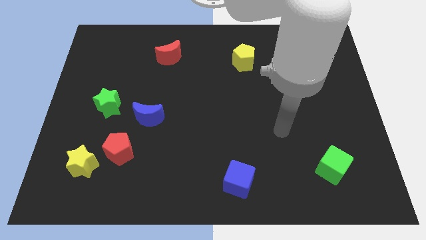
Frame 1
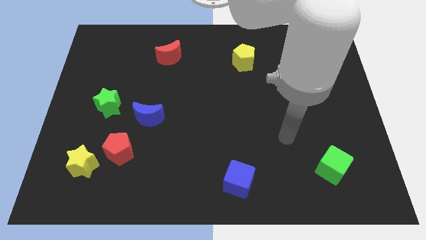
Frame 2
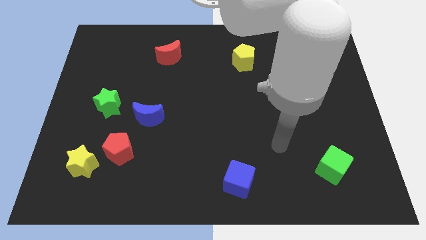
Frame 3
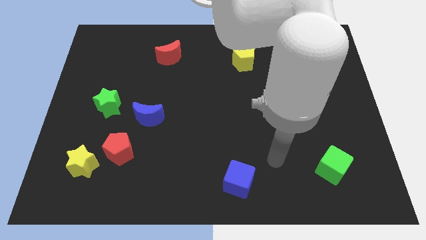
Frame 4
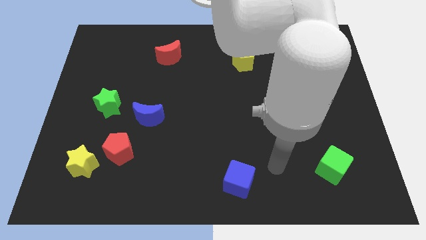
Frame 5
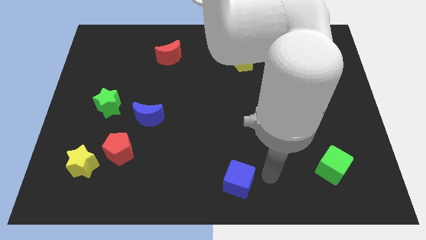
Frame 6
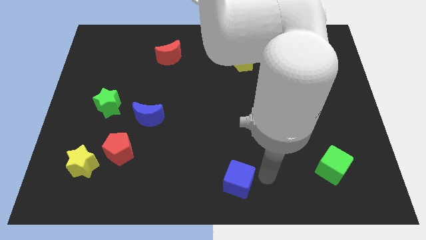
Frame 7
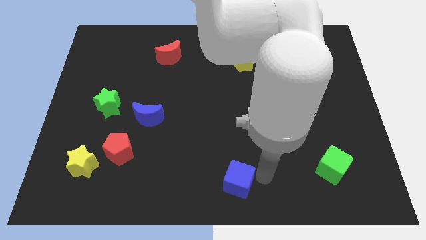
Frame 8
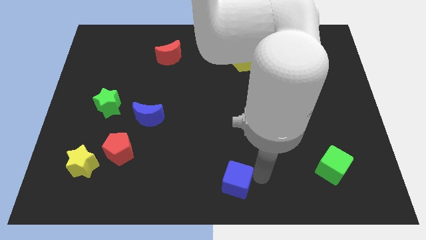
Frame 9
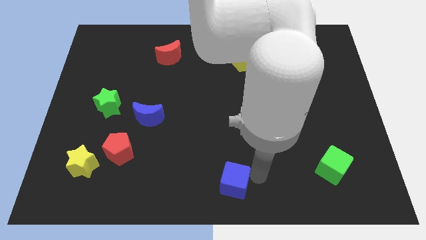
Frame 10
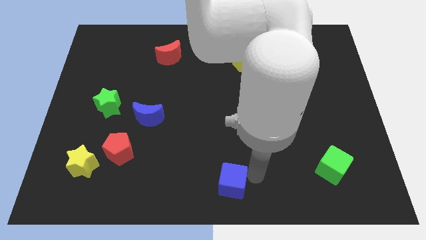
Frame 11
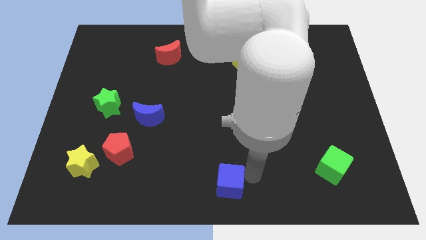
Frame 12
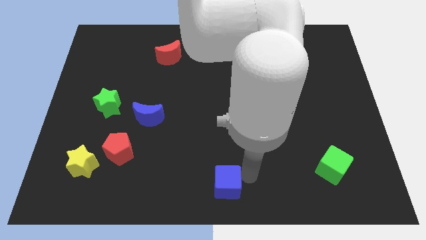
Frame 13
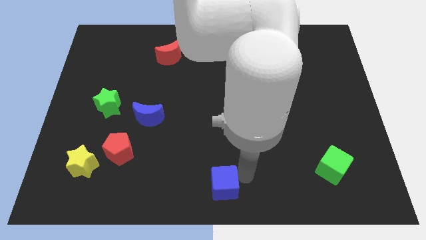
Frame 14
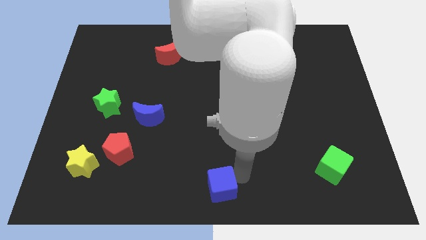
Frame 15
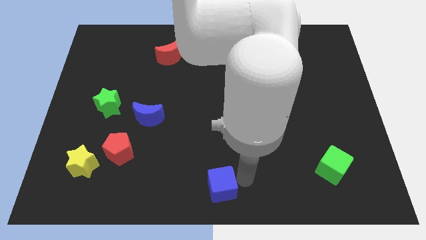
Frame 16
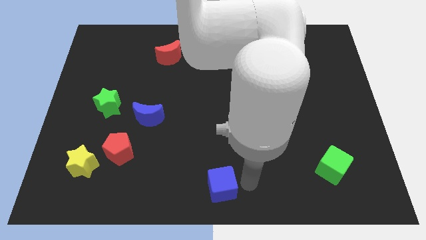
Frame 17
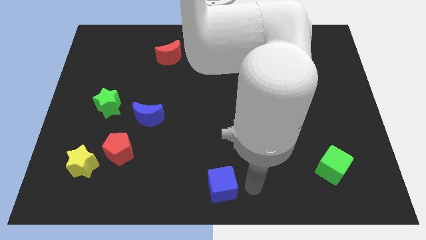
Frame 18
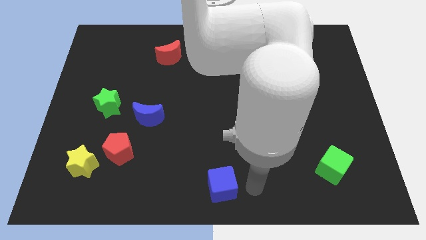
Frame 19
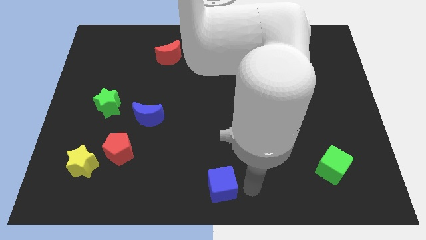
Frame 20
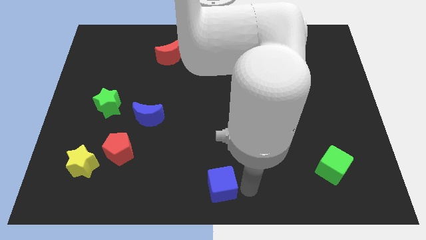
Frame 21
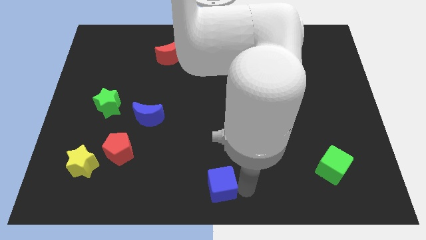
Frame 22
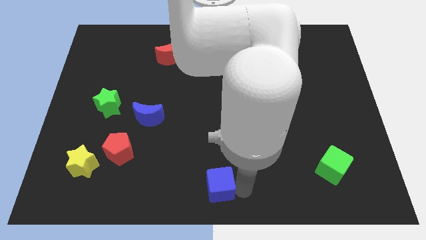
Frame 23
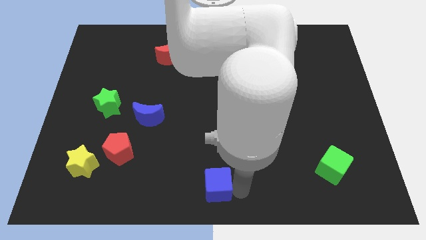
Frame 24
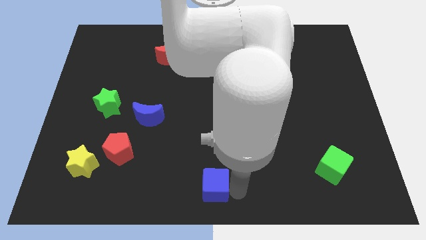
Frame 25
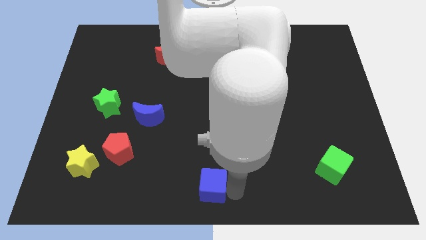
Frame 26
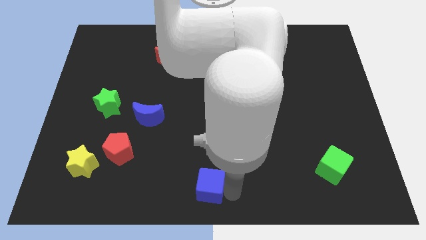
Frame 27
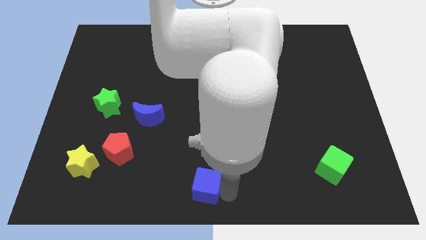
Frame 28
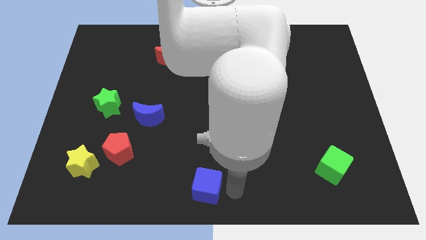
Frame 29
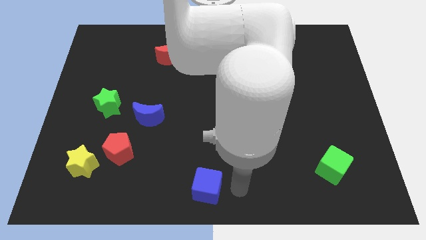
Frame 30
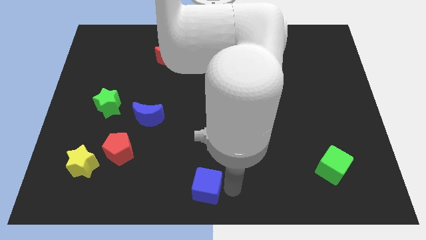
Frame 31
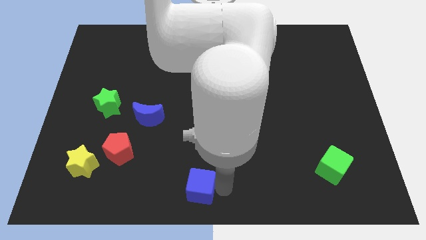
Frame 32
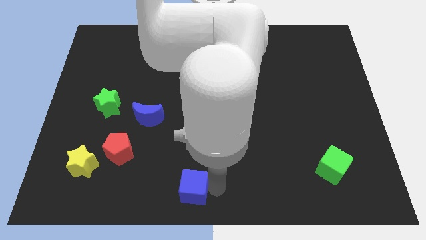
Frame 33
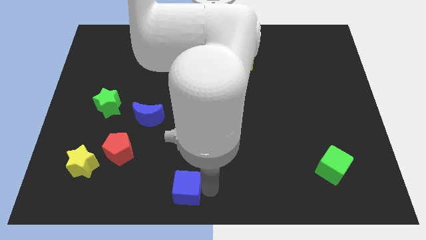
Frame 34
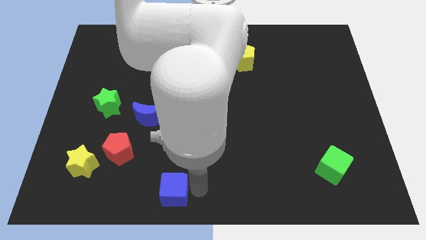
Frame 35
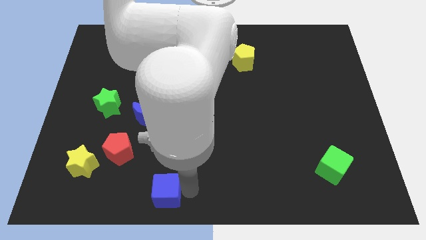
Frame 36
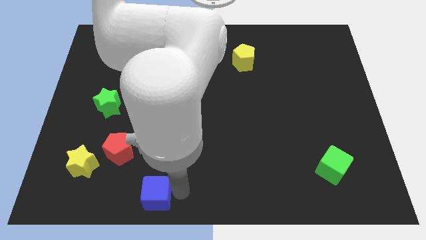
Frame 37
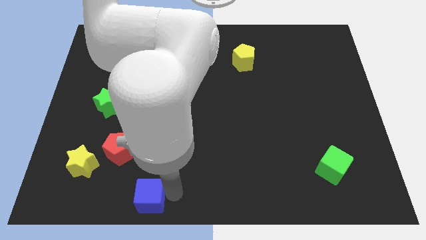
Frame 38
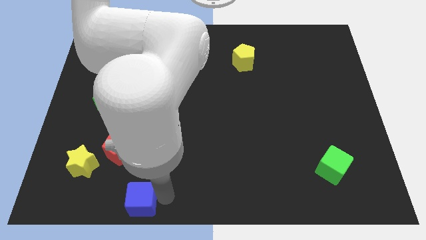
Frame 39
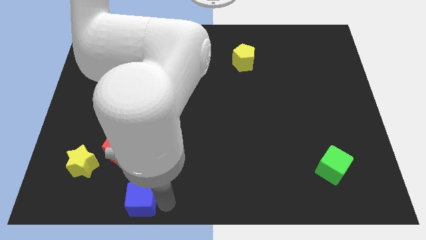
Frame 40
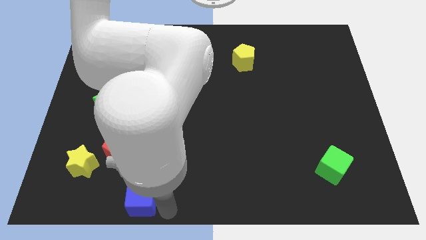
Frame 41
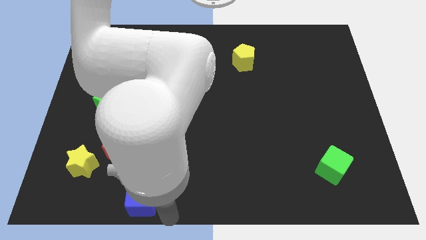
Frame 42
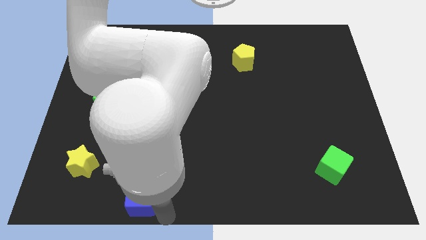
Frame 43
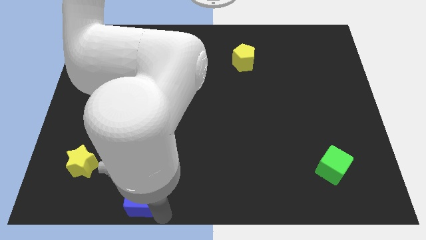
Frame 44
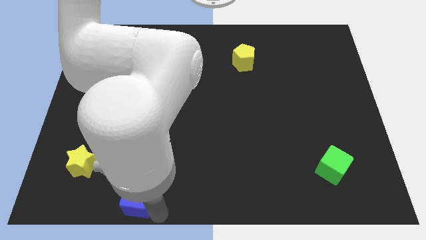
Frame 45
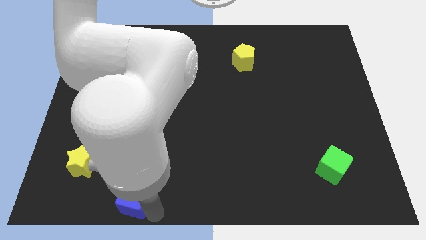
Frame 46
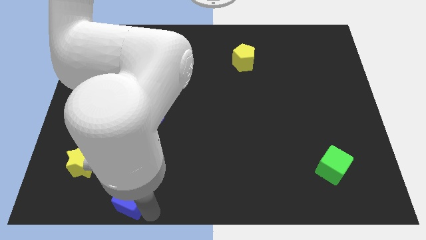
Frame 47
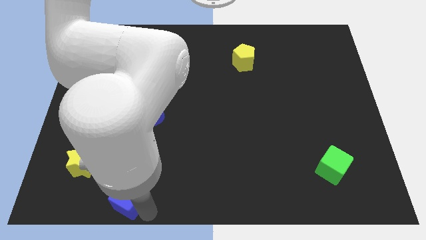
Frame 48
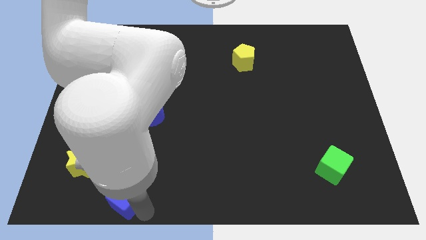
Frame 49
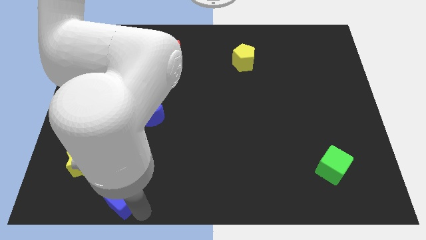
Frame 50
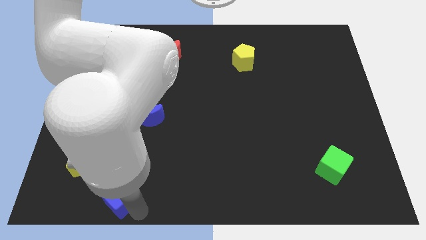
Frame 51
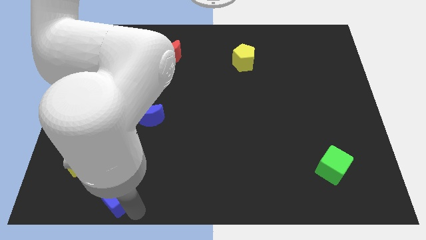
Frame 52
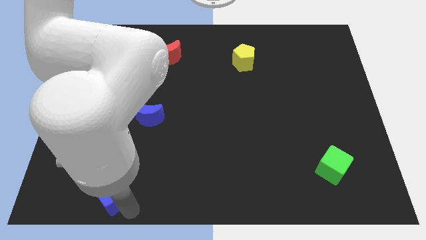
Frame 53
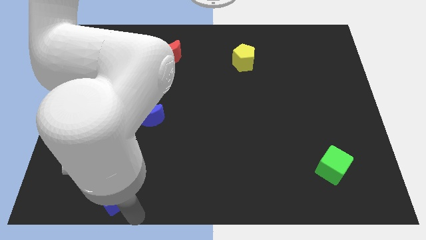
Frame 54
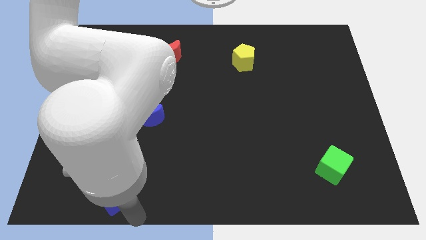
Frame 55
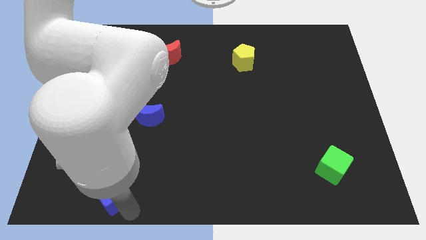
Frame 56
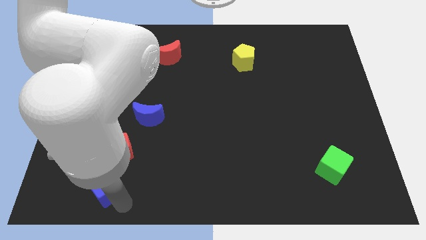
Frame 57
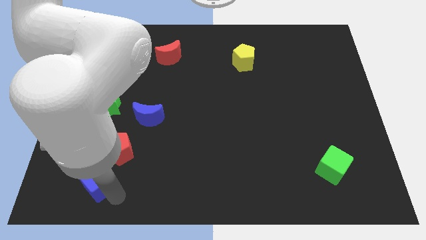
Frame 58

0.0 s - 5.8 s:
slide the blue cube towards the yellow star

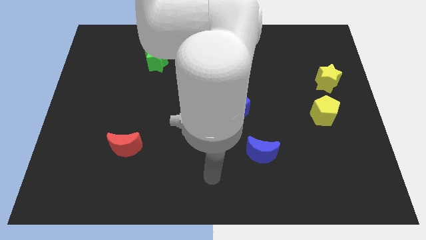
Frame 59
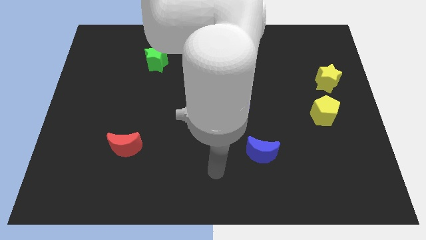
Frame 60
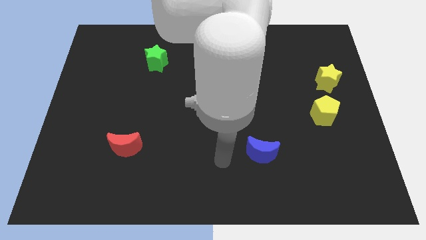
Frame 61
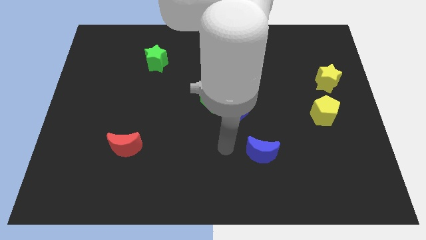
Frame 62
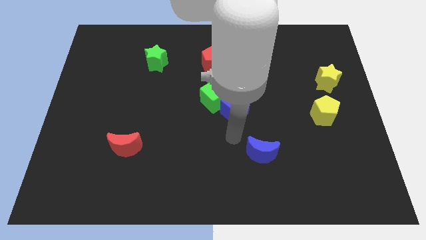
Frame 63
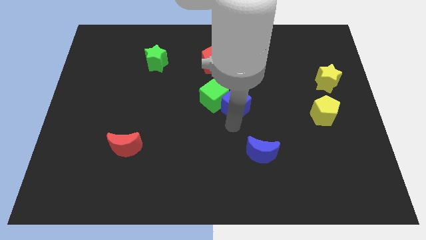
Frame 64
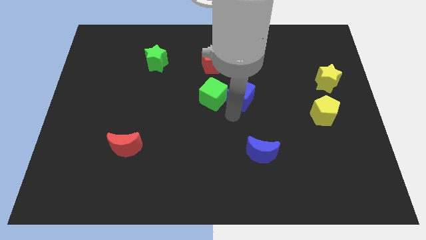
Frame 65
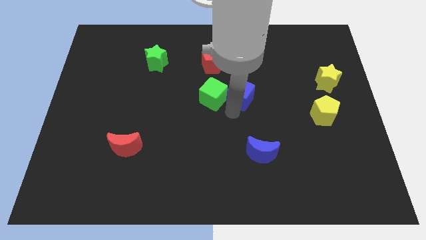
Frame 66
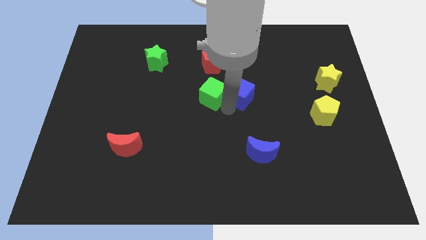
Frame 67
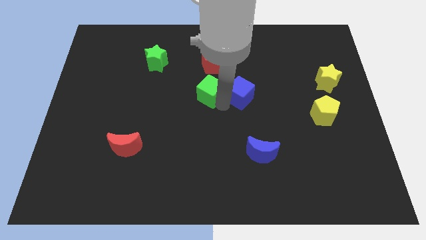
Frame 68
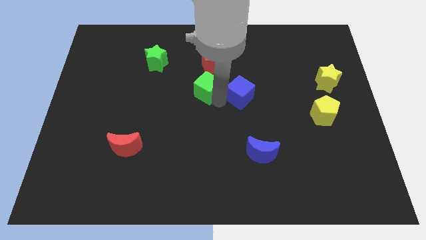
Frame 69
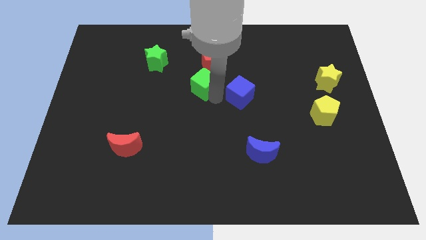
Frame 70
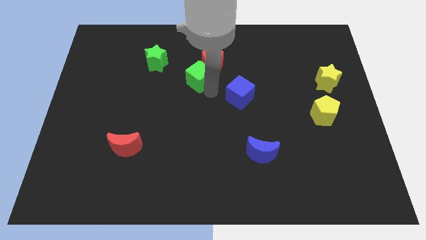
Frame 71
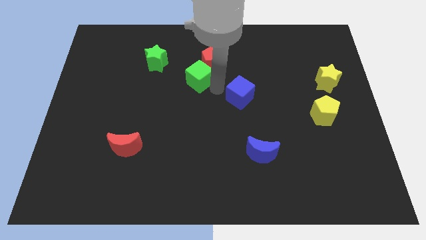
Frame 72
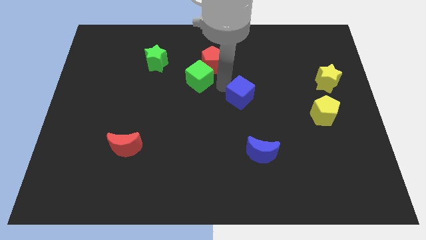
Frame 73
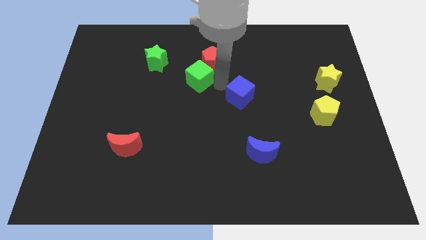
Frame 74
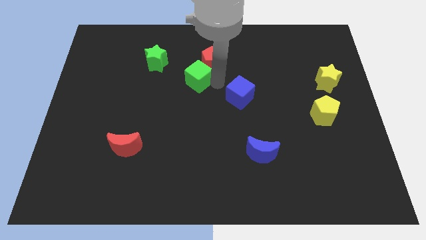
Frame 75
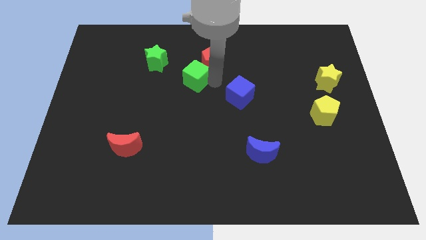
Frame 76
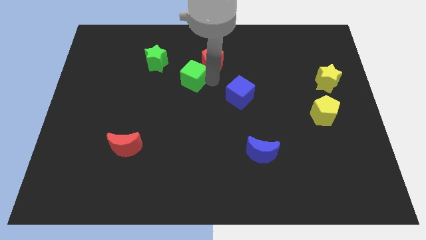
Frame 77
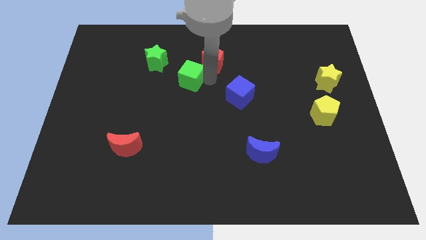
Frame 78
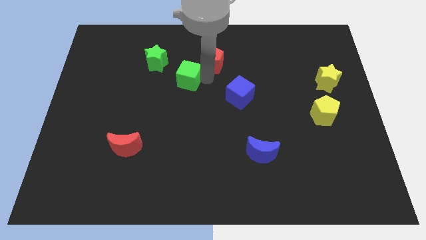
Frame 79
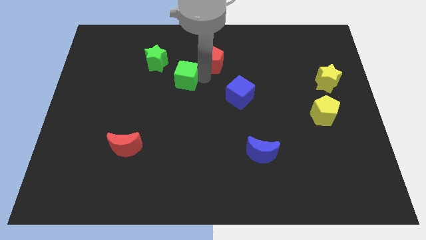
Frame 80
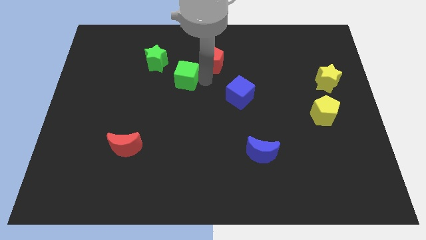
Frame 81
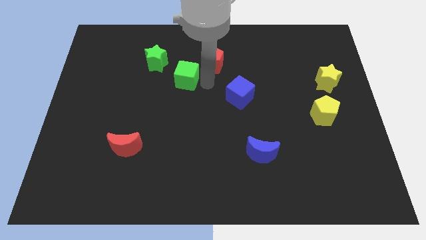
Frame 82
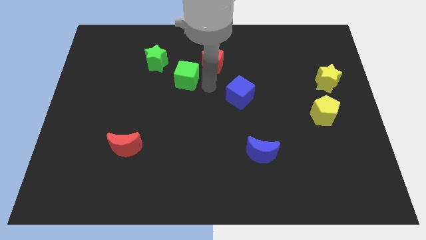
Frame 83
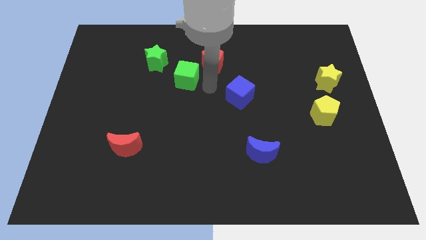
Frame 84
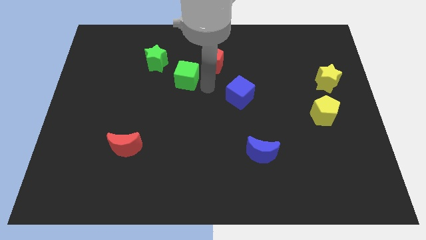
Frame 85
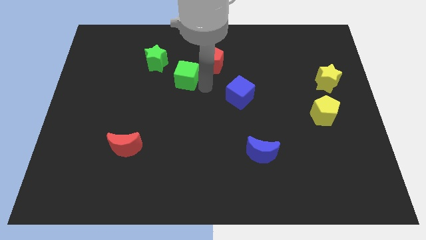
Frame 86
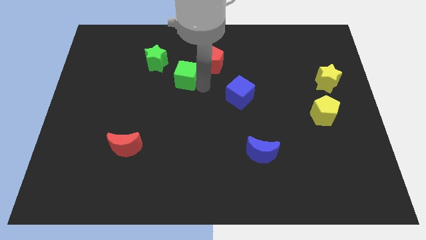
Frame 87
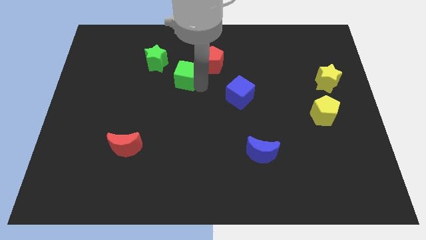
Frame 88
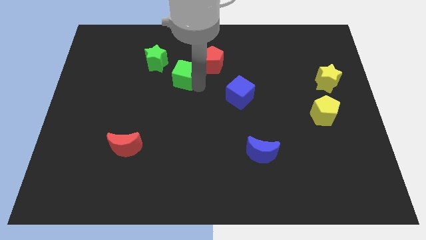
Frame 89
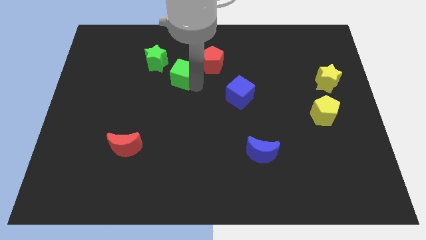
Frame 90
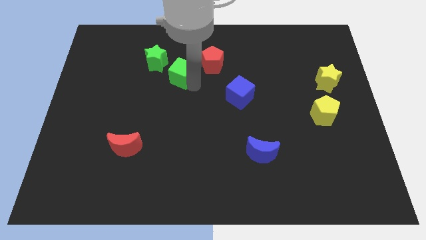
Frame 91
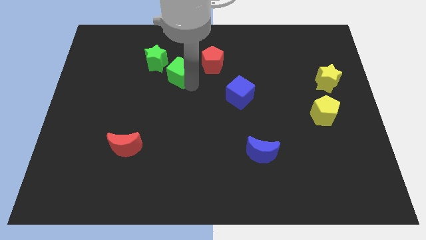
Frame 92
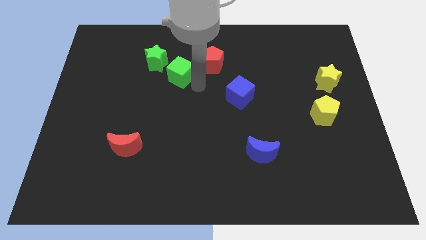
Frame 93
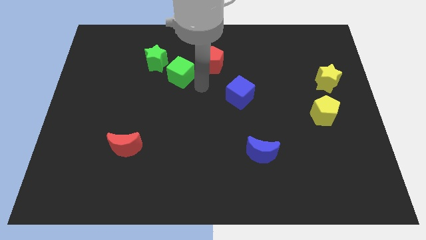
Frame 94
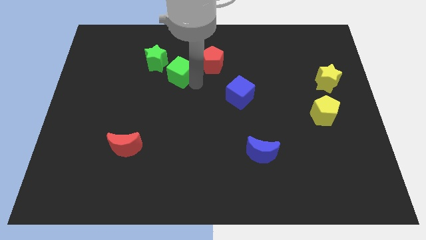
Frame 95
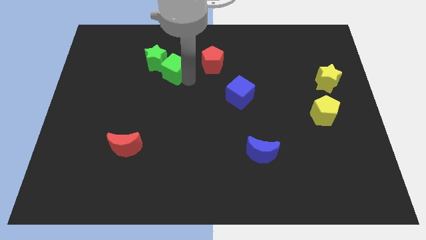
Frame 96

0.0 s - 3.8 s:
slide the green cube towards the green star
